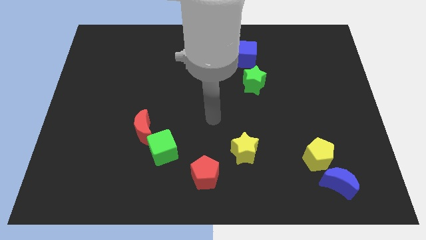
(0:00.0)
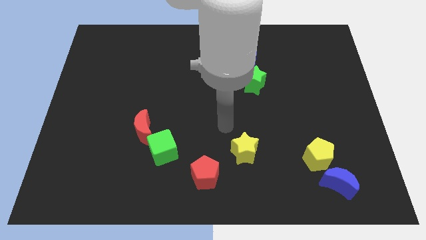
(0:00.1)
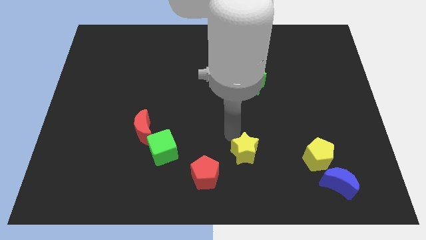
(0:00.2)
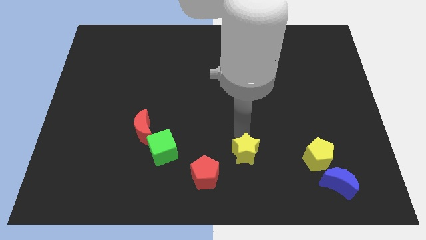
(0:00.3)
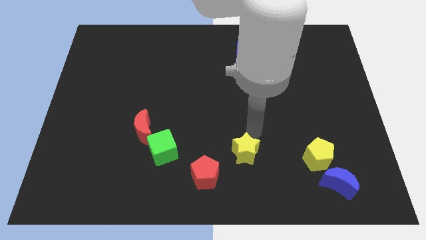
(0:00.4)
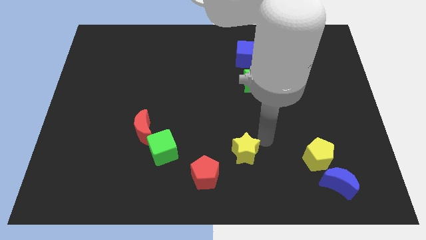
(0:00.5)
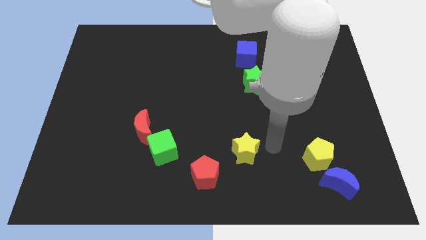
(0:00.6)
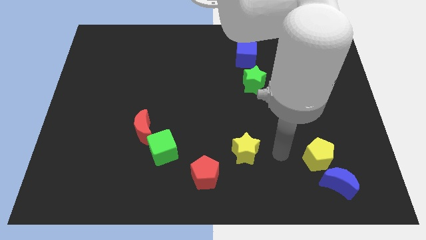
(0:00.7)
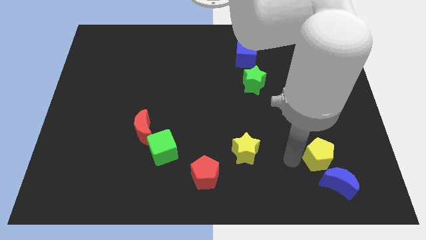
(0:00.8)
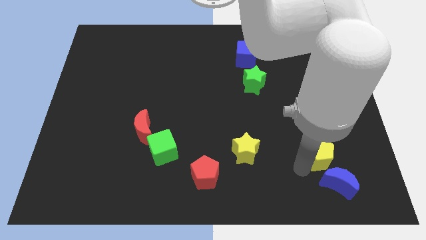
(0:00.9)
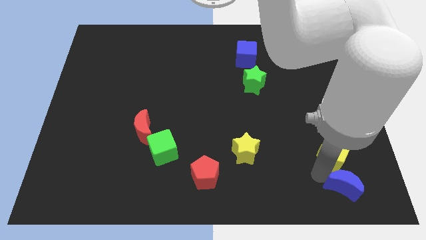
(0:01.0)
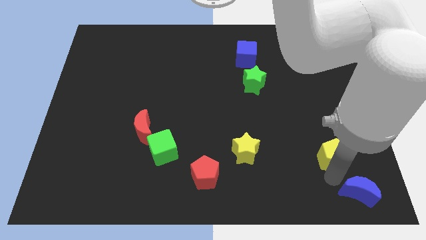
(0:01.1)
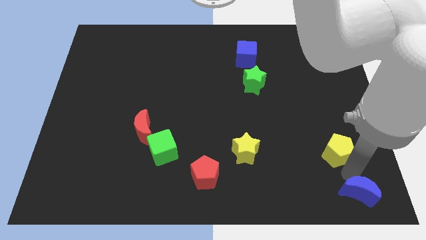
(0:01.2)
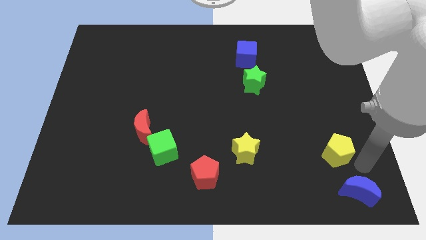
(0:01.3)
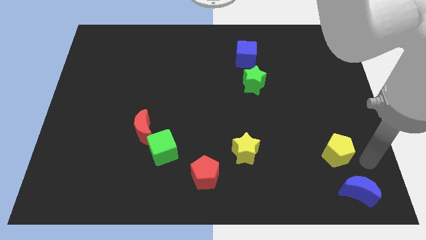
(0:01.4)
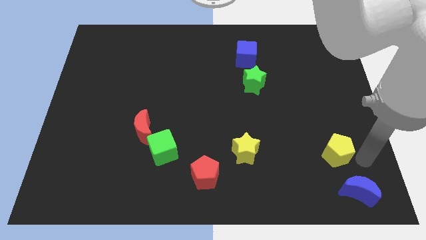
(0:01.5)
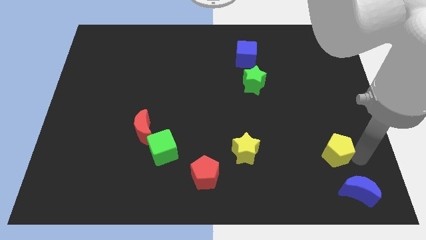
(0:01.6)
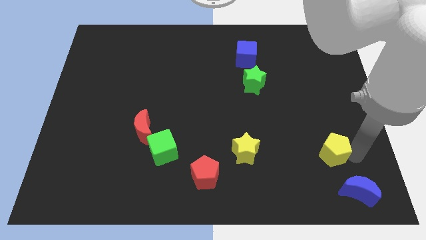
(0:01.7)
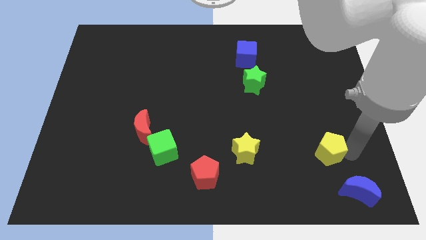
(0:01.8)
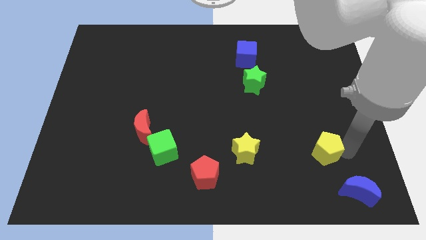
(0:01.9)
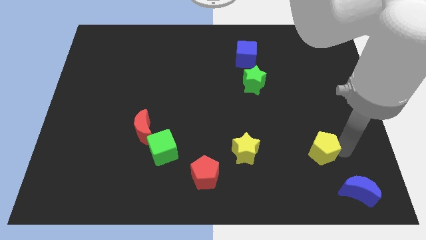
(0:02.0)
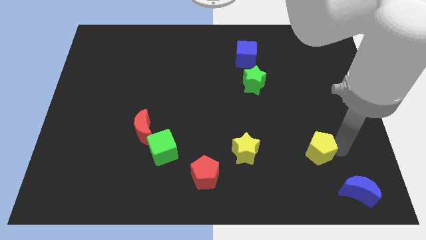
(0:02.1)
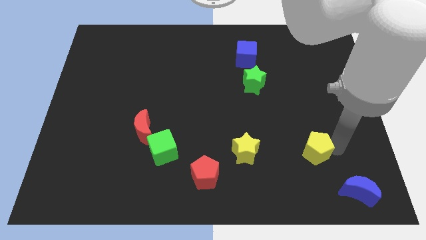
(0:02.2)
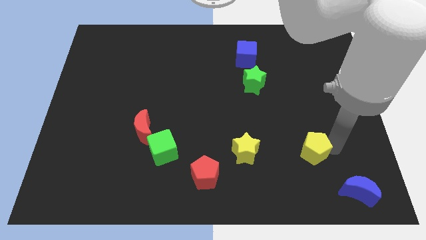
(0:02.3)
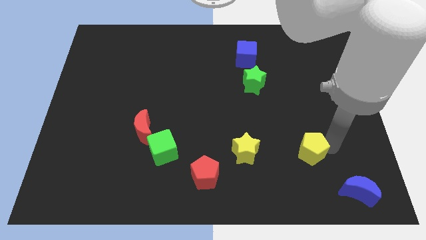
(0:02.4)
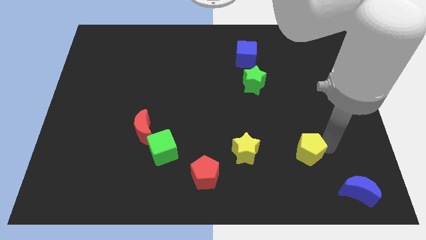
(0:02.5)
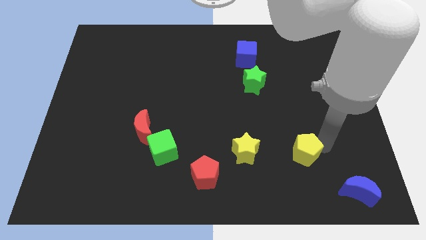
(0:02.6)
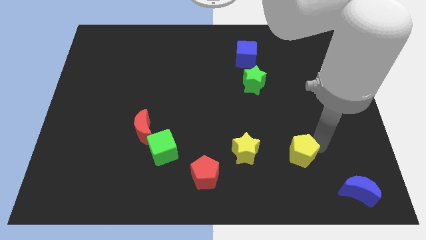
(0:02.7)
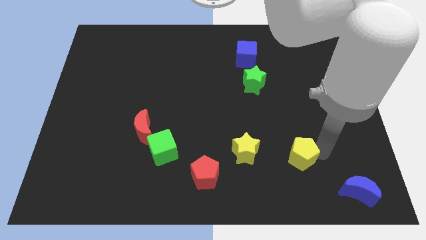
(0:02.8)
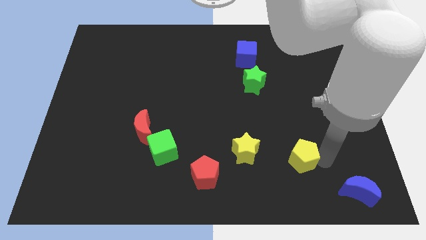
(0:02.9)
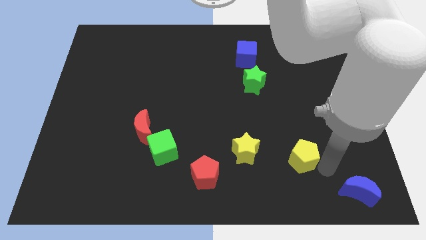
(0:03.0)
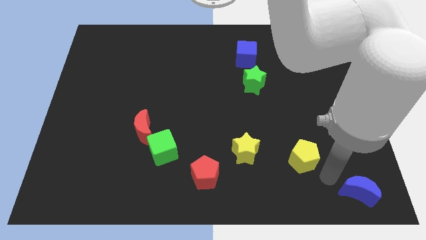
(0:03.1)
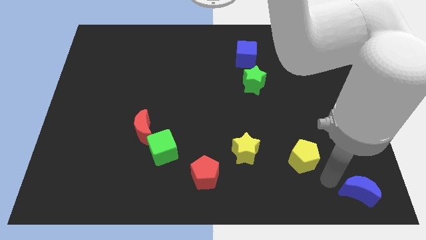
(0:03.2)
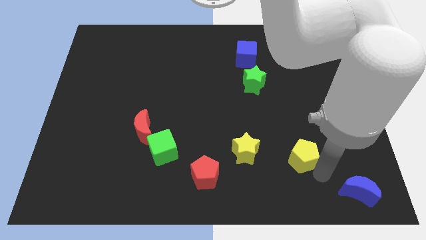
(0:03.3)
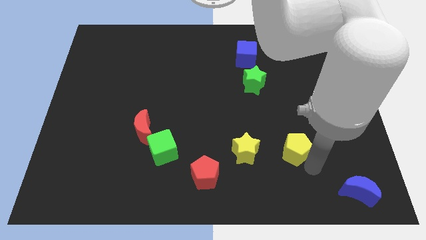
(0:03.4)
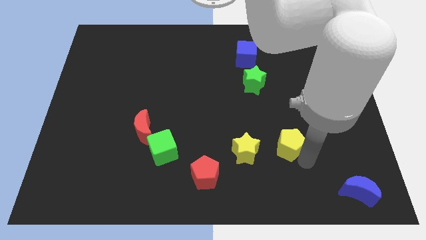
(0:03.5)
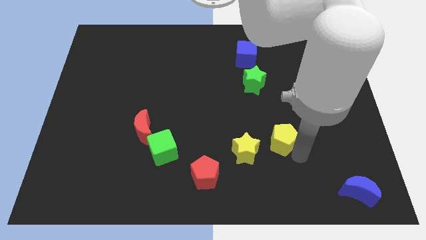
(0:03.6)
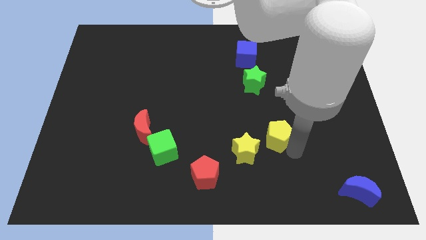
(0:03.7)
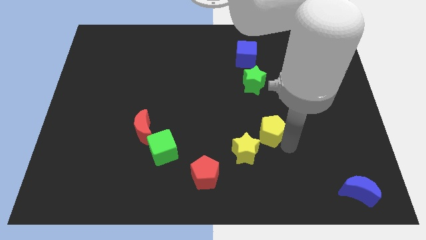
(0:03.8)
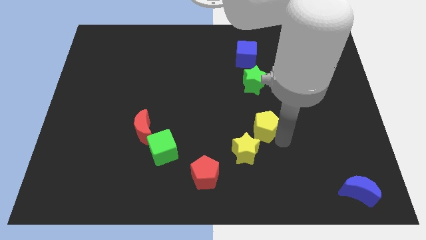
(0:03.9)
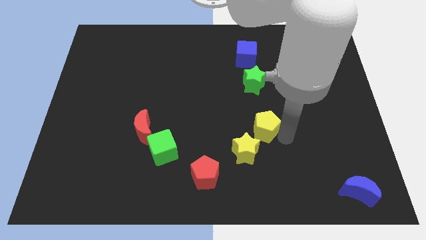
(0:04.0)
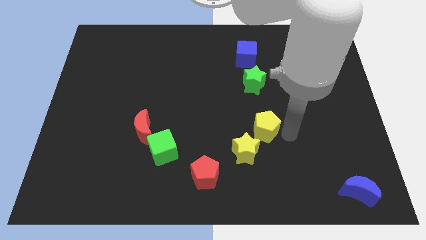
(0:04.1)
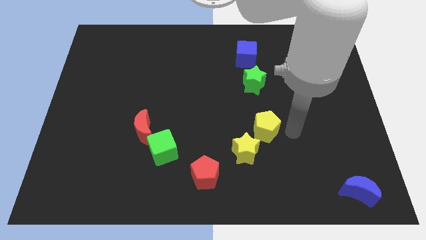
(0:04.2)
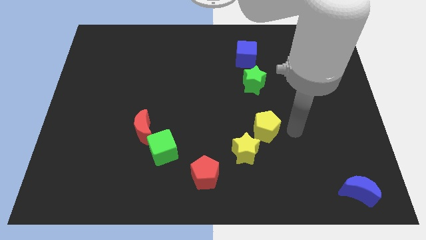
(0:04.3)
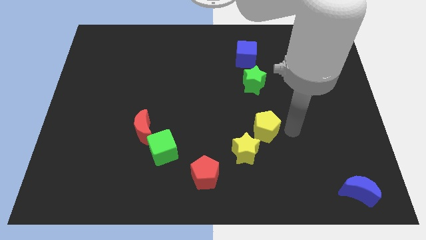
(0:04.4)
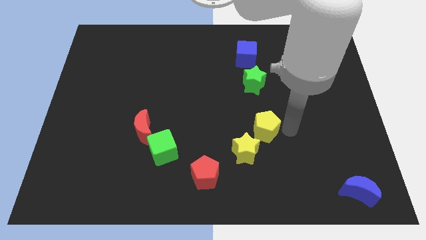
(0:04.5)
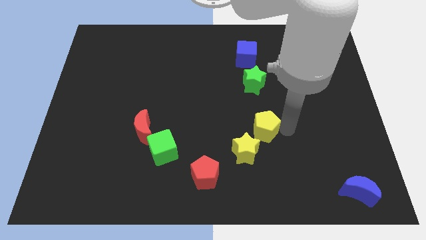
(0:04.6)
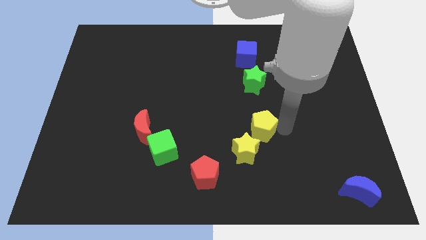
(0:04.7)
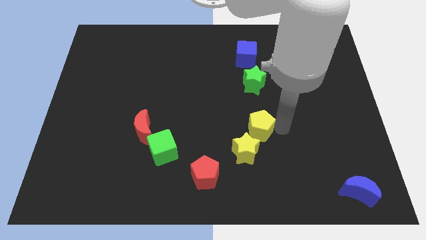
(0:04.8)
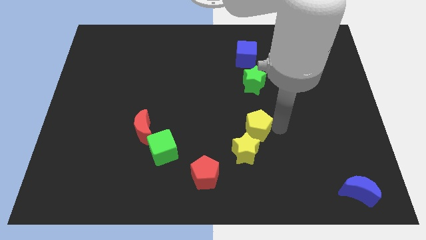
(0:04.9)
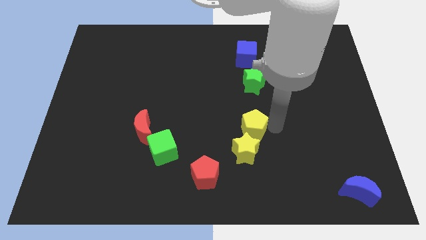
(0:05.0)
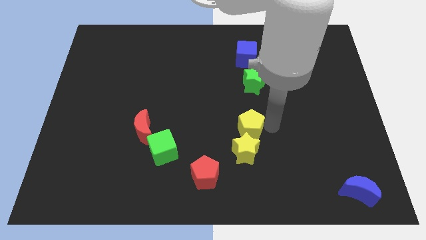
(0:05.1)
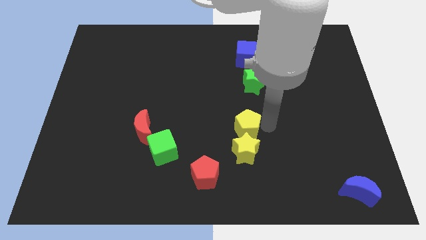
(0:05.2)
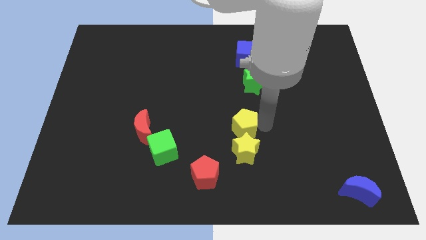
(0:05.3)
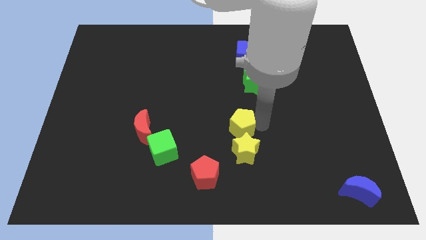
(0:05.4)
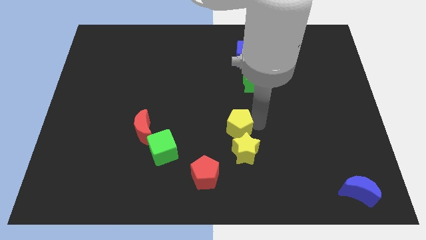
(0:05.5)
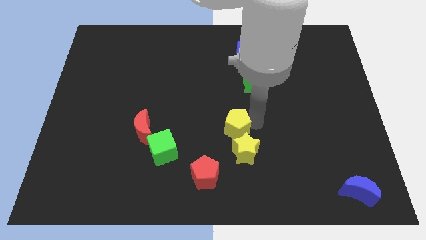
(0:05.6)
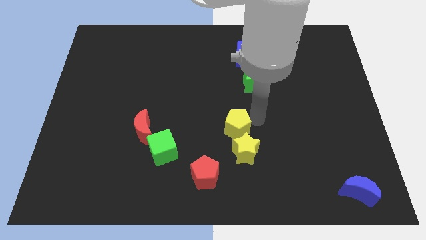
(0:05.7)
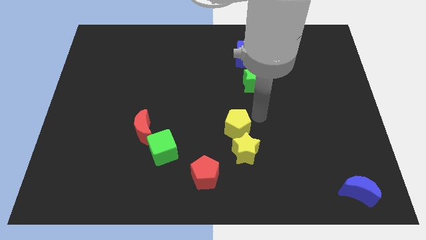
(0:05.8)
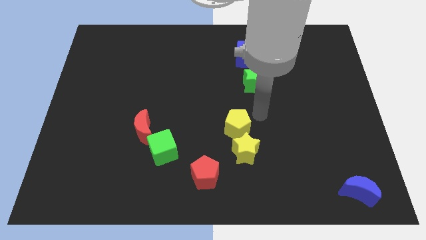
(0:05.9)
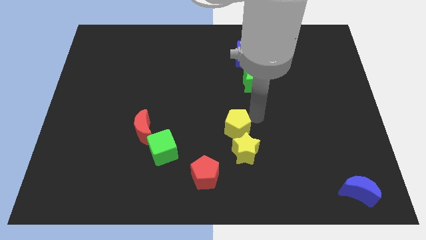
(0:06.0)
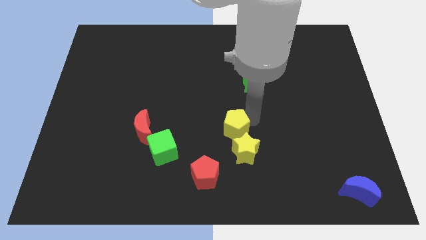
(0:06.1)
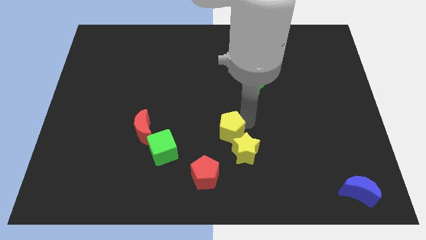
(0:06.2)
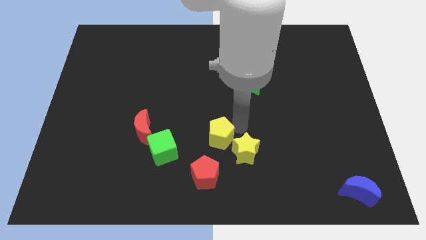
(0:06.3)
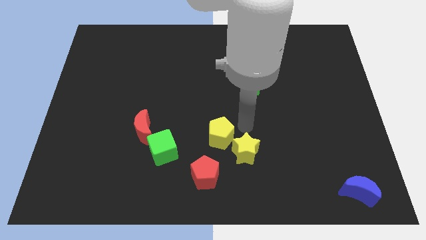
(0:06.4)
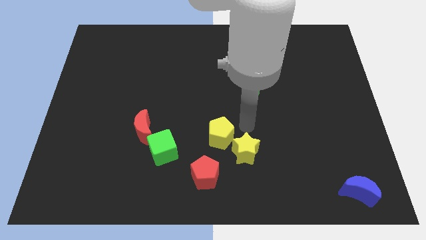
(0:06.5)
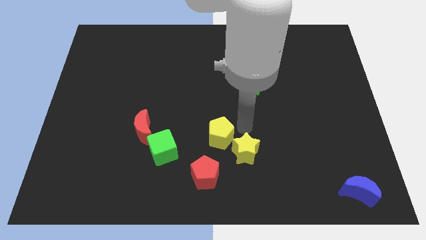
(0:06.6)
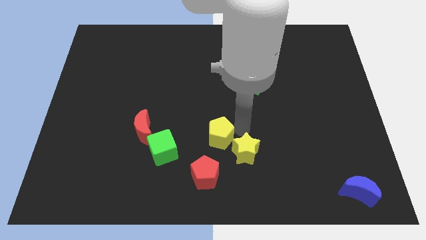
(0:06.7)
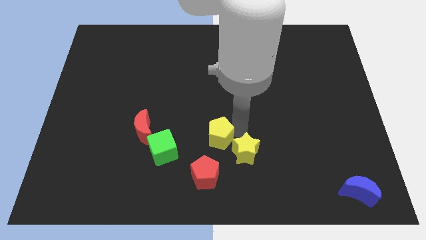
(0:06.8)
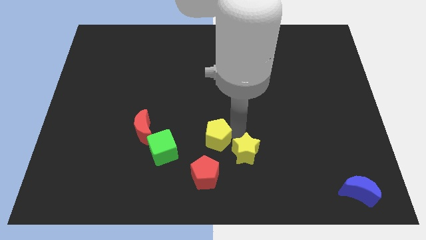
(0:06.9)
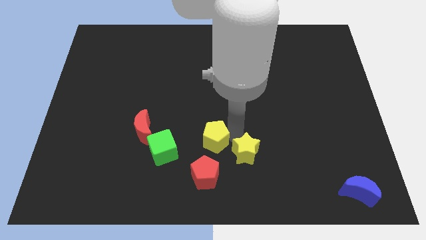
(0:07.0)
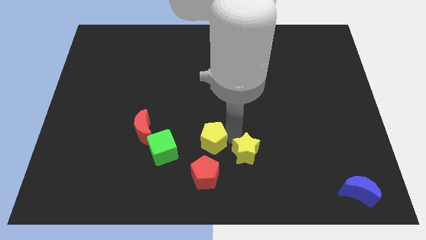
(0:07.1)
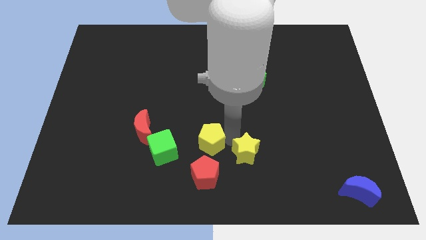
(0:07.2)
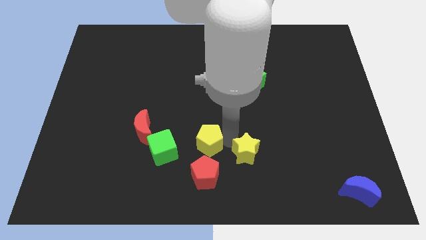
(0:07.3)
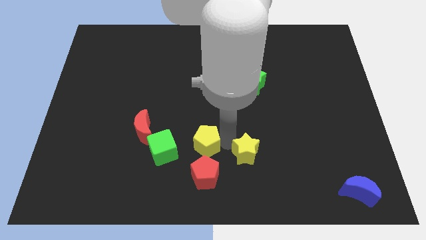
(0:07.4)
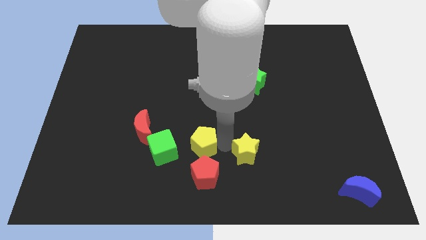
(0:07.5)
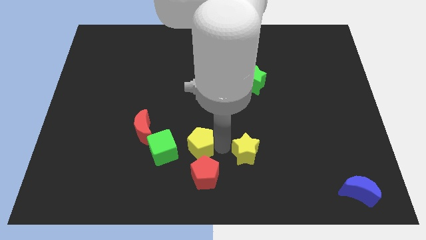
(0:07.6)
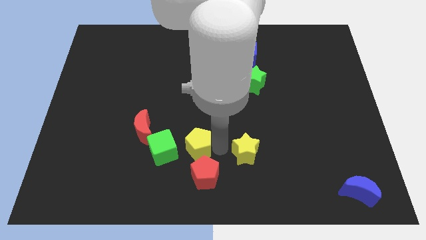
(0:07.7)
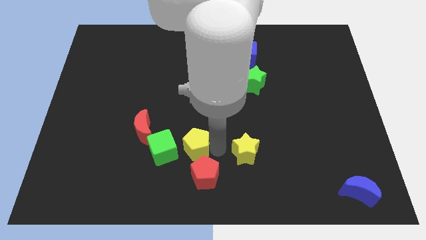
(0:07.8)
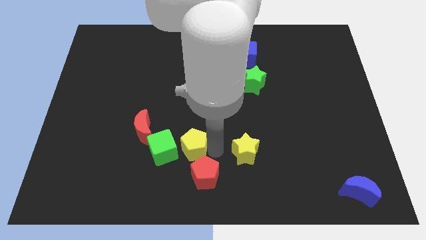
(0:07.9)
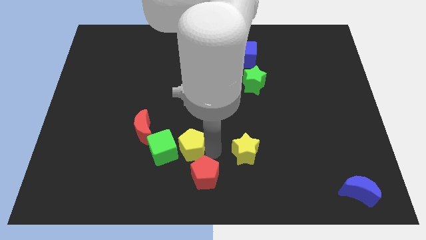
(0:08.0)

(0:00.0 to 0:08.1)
slide the yellow pentagon next to the green cube
